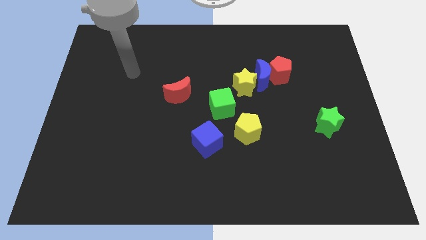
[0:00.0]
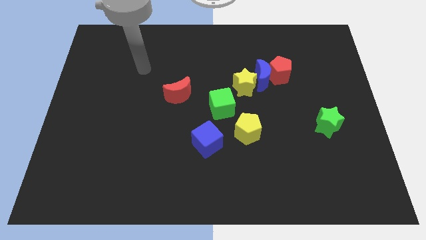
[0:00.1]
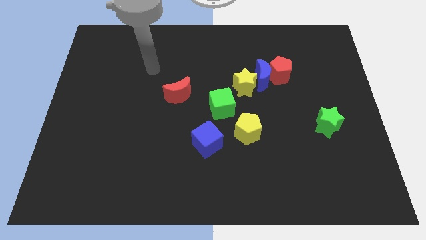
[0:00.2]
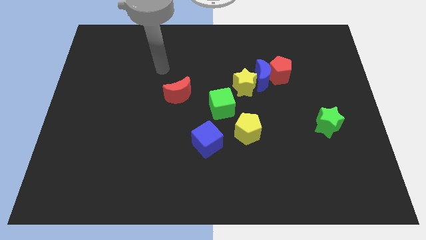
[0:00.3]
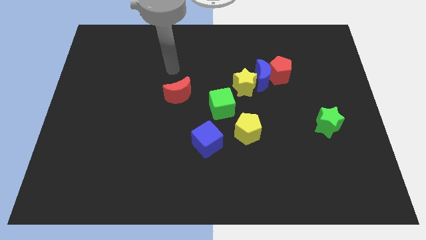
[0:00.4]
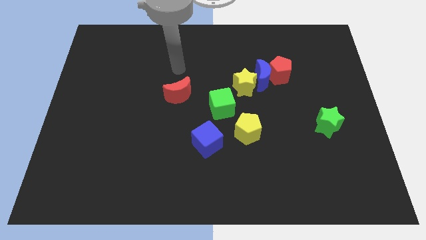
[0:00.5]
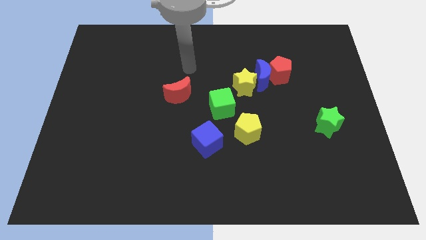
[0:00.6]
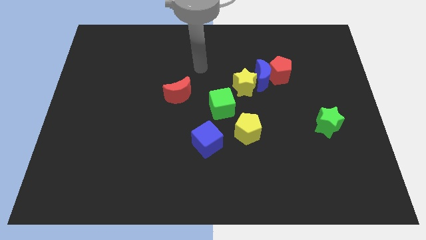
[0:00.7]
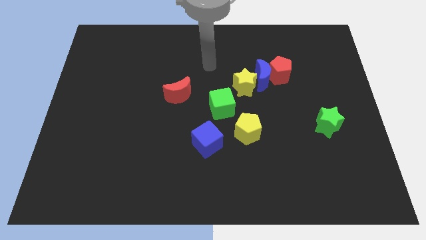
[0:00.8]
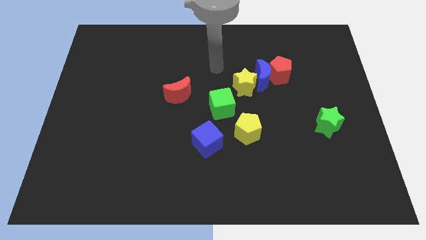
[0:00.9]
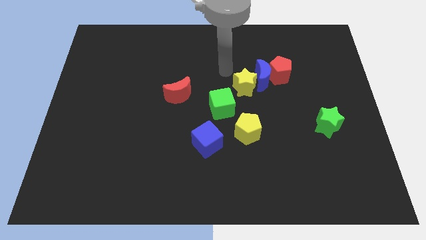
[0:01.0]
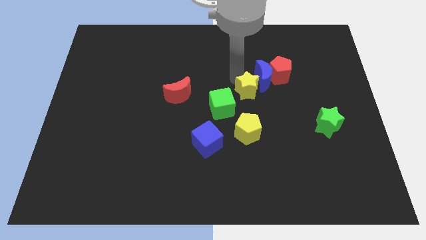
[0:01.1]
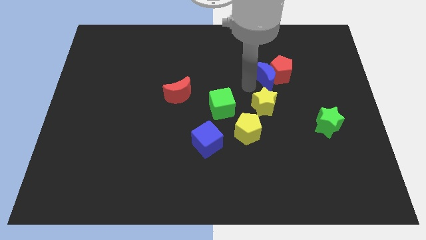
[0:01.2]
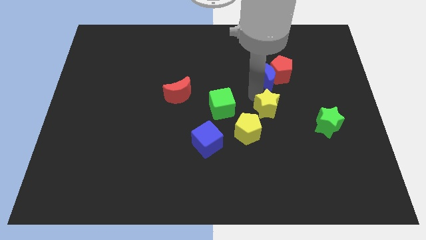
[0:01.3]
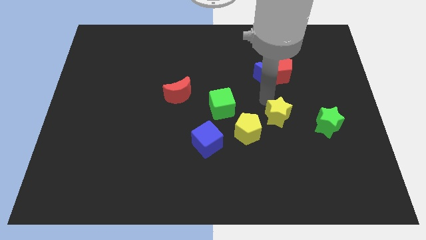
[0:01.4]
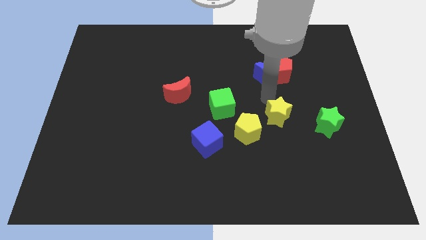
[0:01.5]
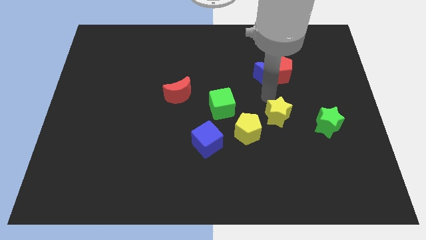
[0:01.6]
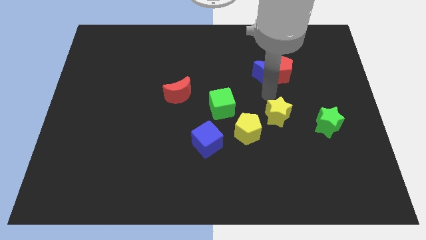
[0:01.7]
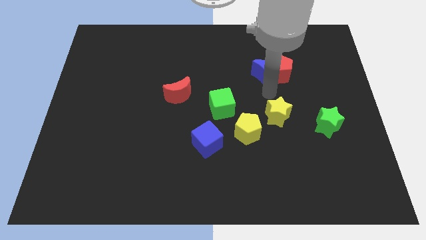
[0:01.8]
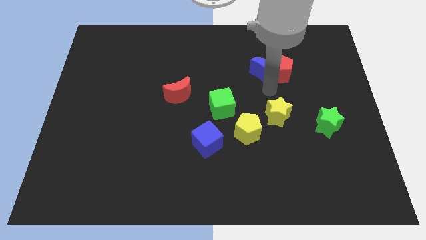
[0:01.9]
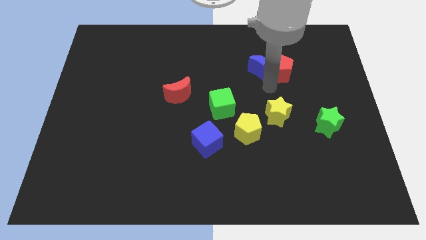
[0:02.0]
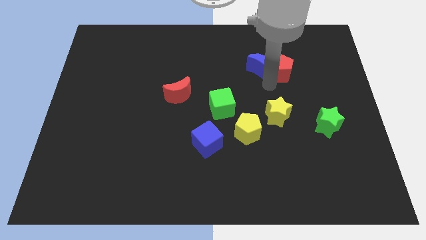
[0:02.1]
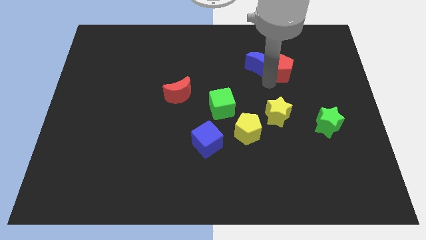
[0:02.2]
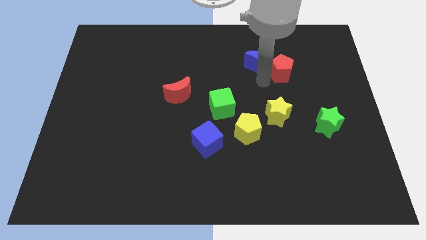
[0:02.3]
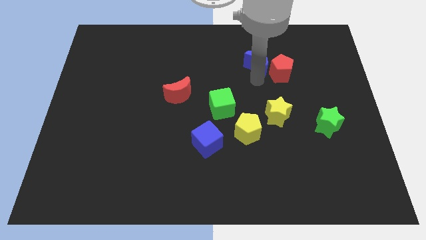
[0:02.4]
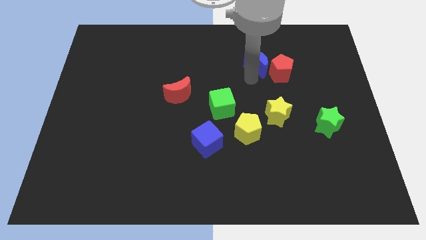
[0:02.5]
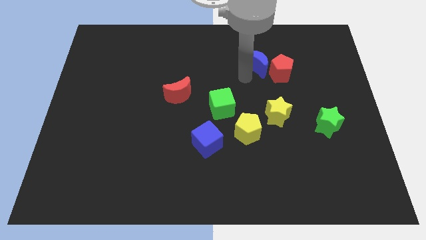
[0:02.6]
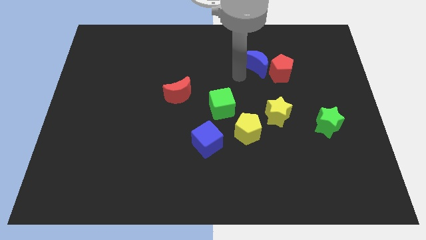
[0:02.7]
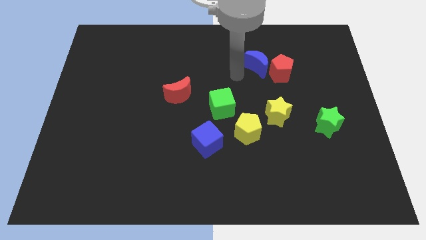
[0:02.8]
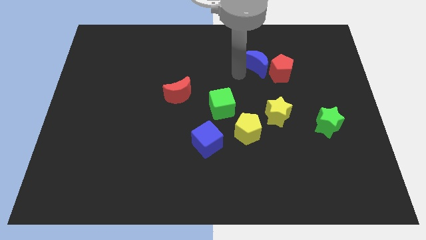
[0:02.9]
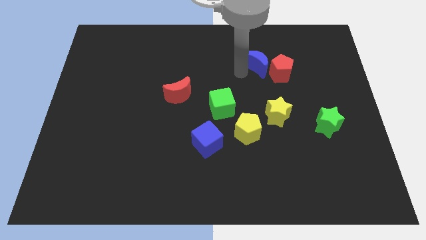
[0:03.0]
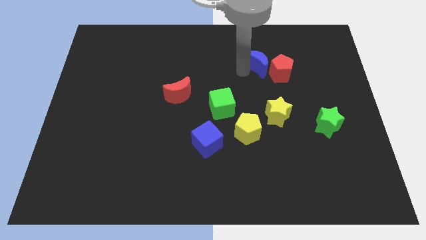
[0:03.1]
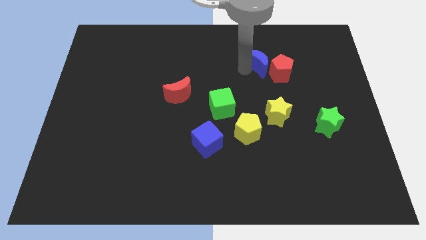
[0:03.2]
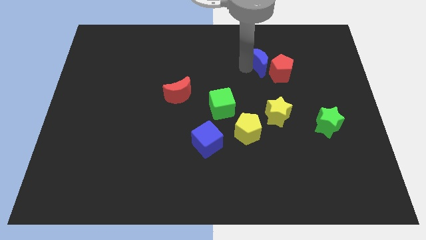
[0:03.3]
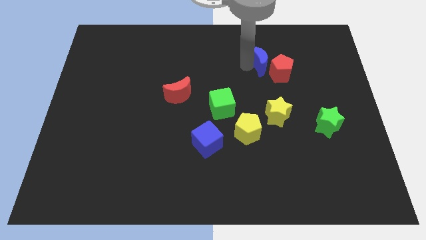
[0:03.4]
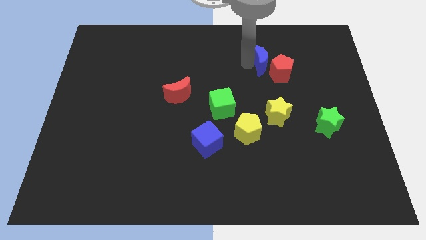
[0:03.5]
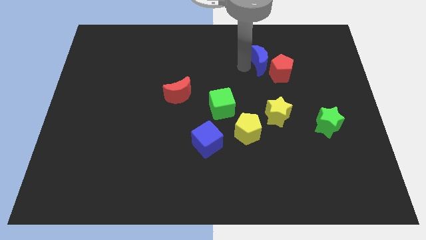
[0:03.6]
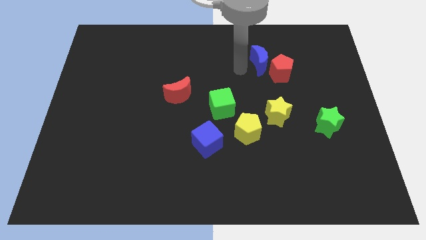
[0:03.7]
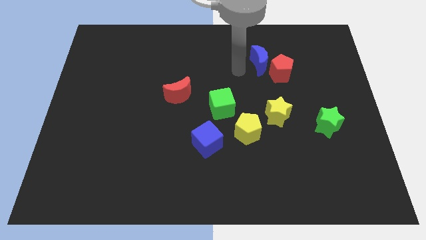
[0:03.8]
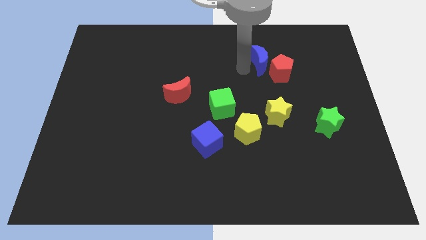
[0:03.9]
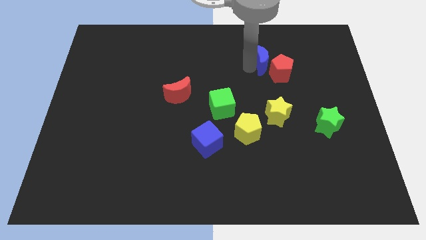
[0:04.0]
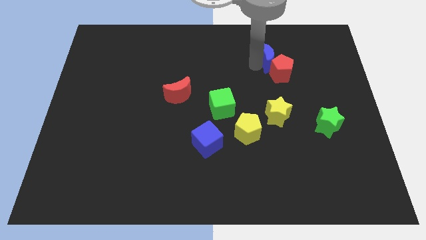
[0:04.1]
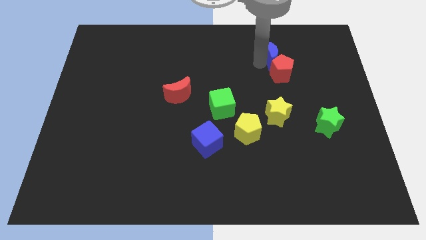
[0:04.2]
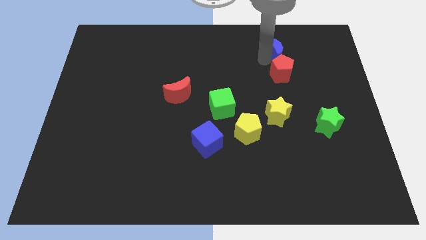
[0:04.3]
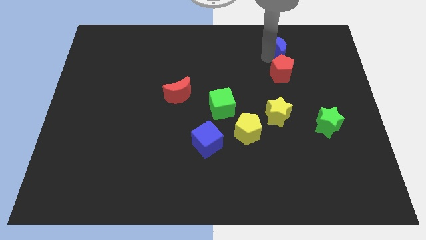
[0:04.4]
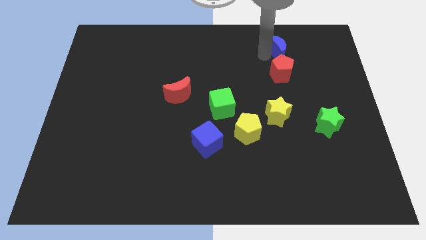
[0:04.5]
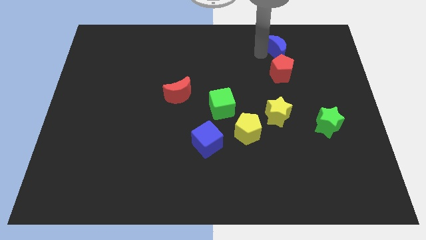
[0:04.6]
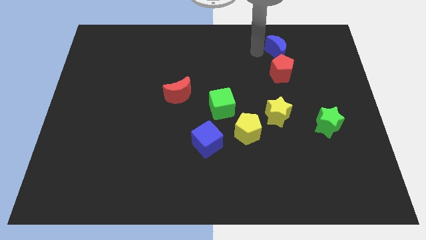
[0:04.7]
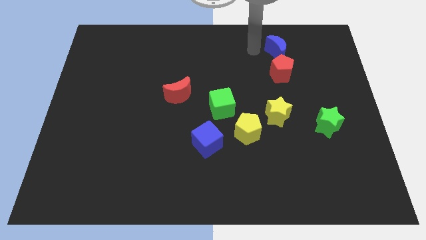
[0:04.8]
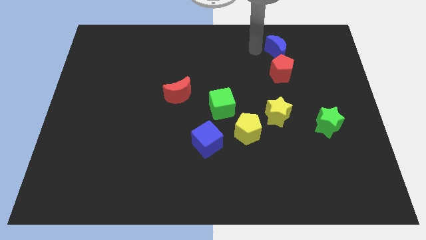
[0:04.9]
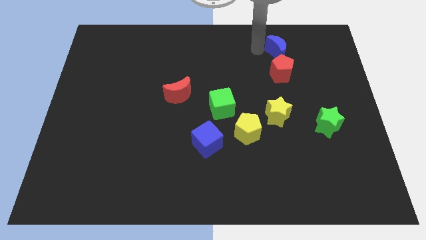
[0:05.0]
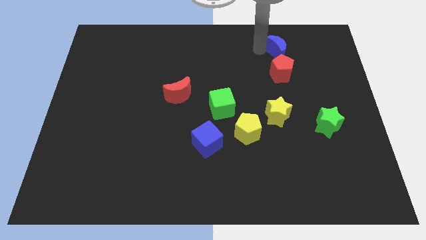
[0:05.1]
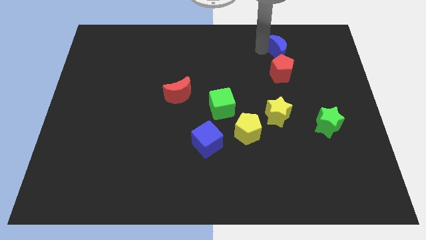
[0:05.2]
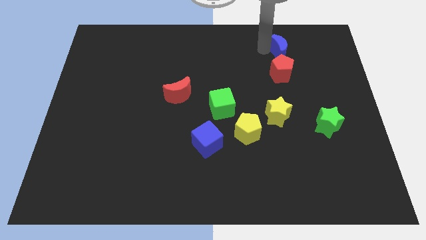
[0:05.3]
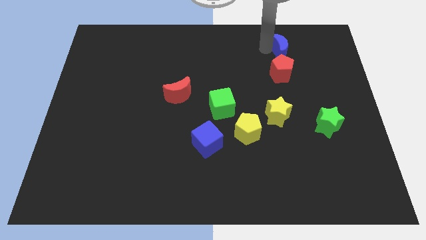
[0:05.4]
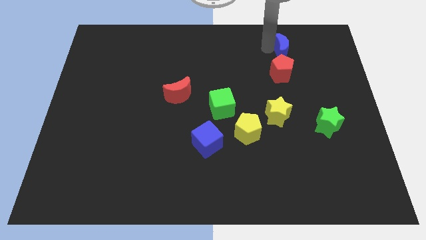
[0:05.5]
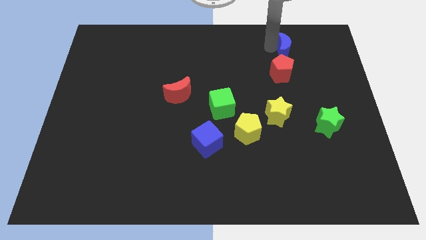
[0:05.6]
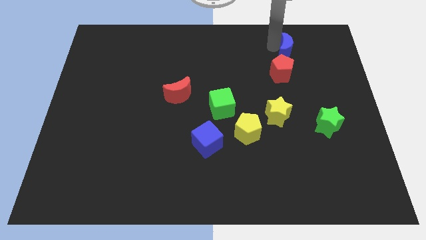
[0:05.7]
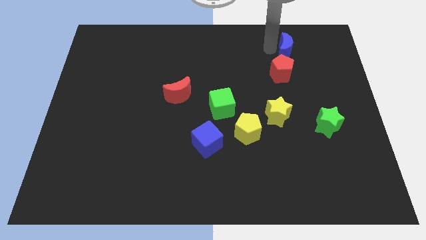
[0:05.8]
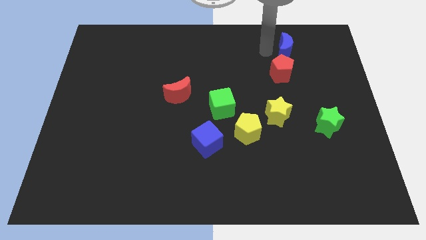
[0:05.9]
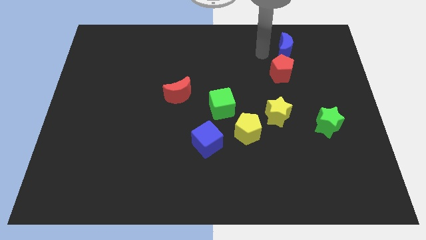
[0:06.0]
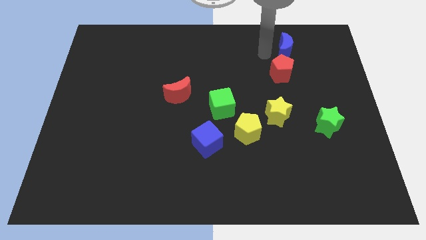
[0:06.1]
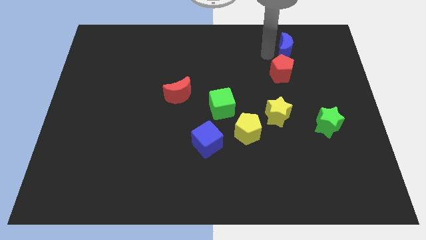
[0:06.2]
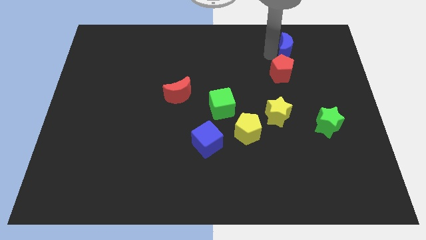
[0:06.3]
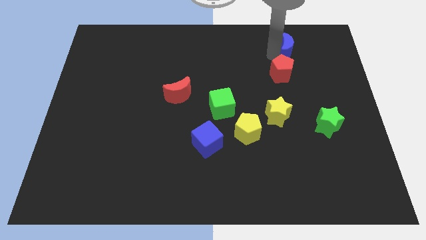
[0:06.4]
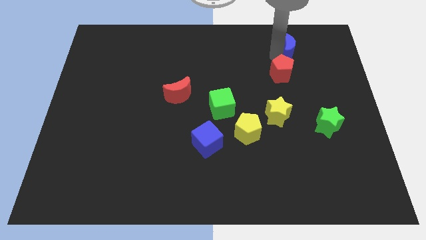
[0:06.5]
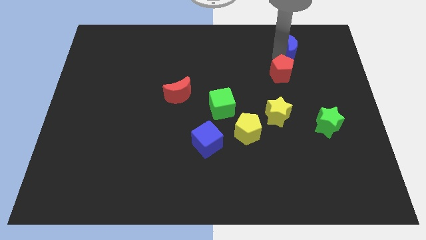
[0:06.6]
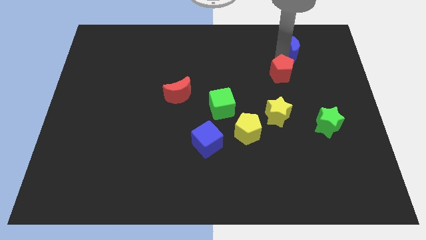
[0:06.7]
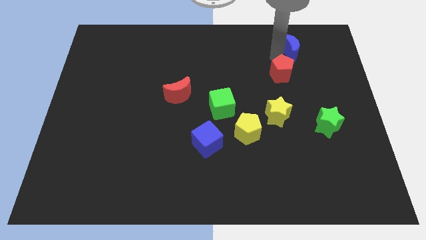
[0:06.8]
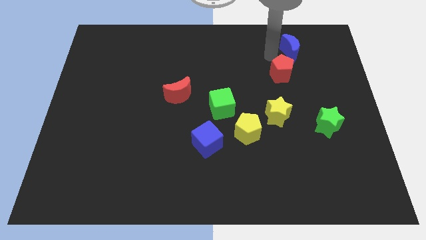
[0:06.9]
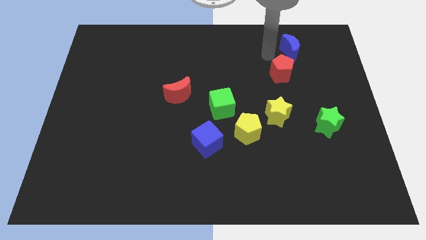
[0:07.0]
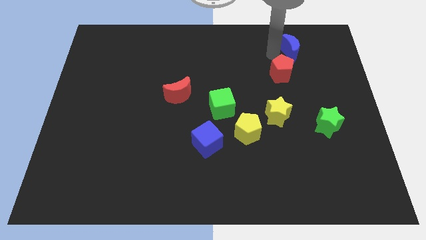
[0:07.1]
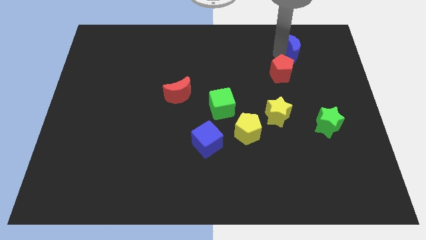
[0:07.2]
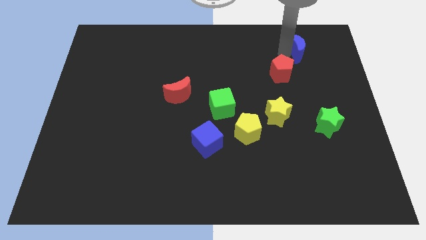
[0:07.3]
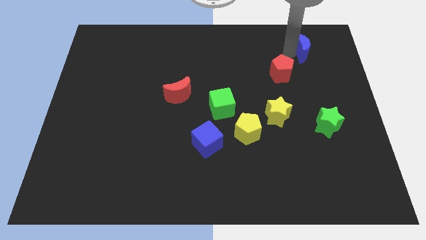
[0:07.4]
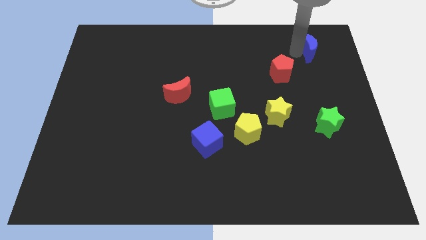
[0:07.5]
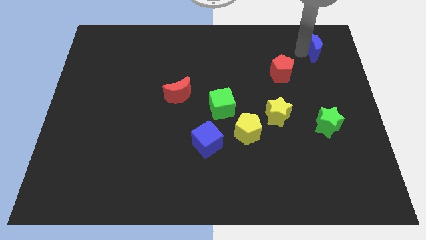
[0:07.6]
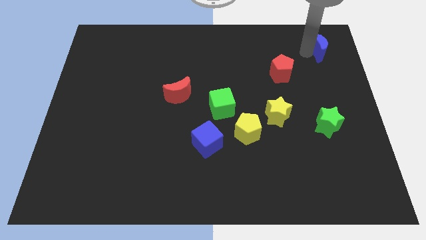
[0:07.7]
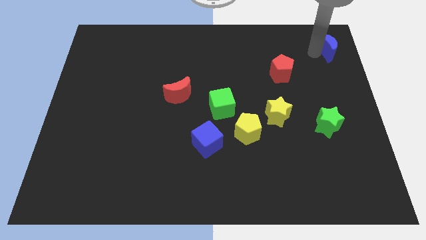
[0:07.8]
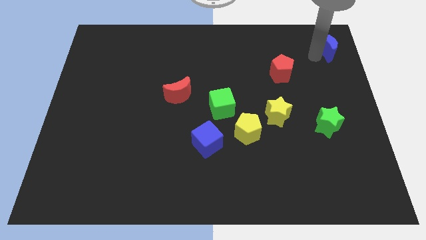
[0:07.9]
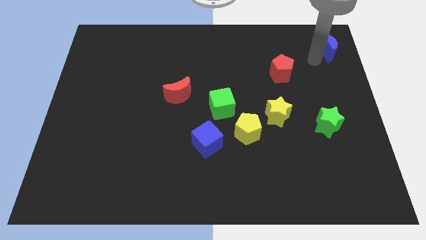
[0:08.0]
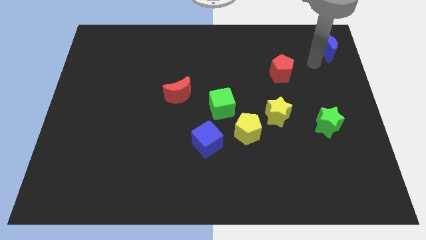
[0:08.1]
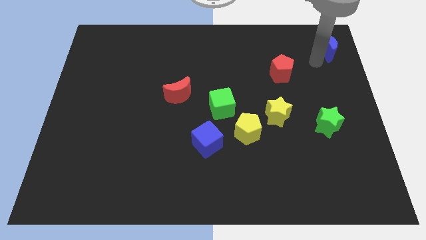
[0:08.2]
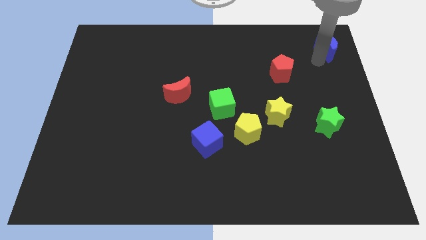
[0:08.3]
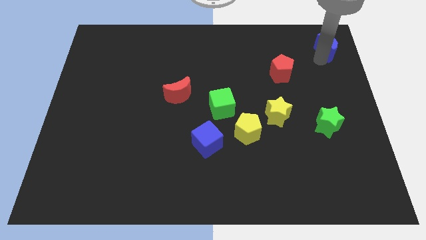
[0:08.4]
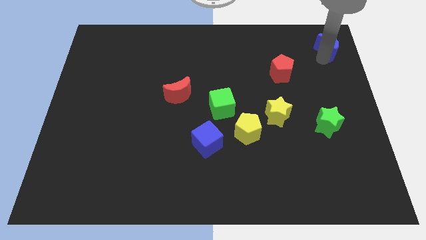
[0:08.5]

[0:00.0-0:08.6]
move the blue moon to the top right
